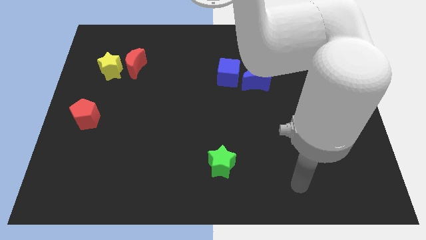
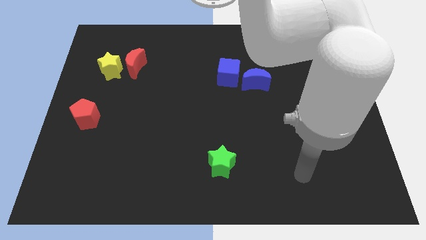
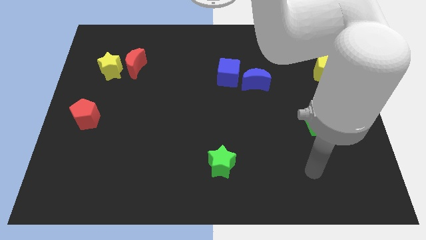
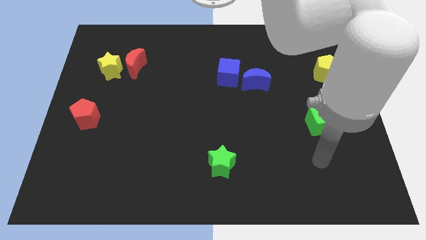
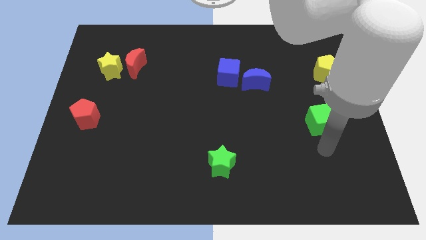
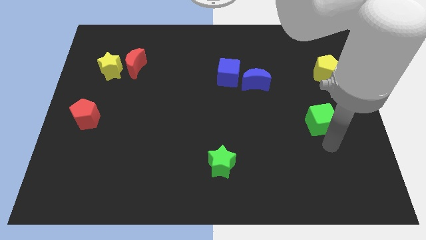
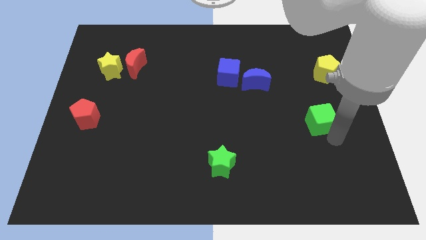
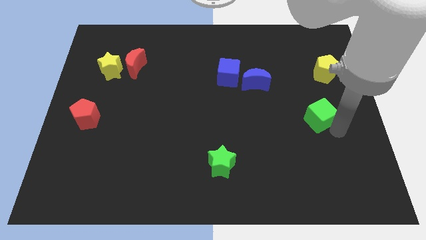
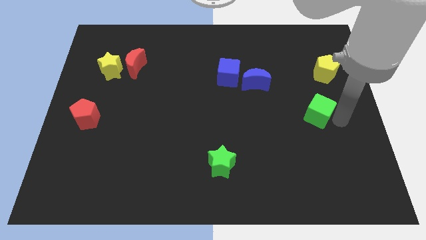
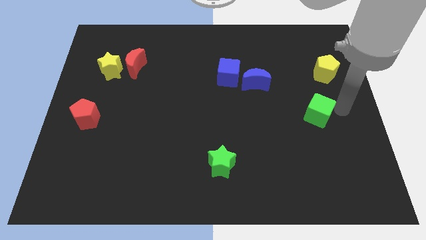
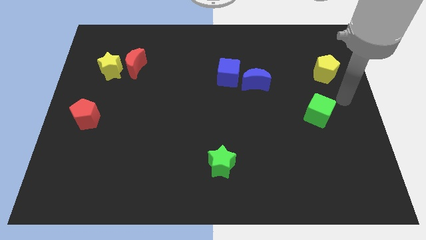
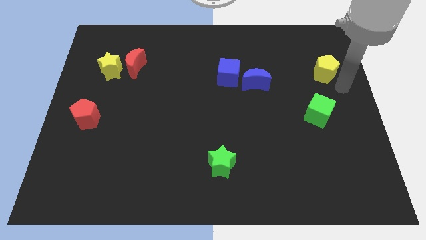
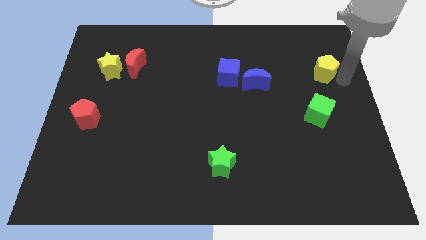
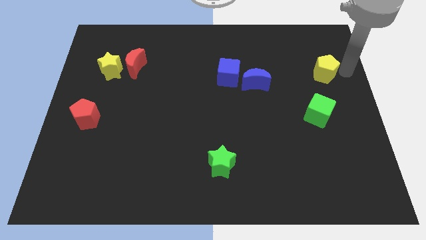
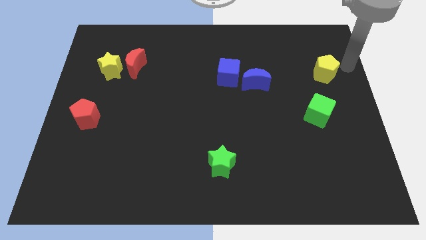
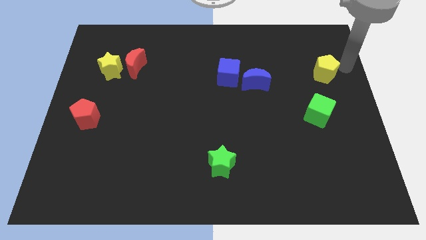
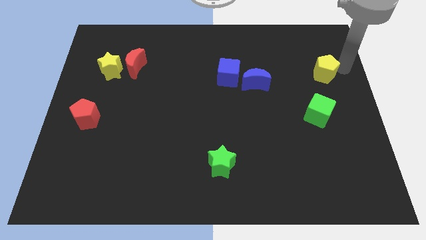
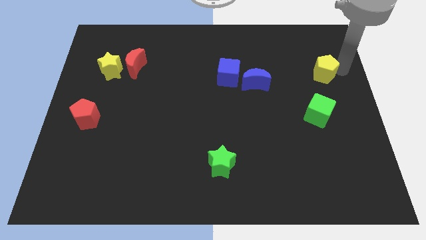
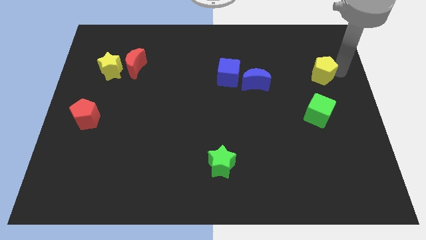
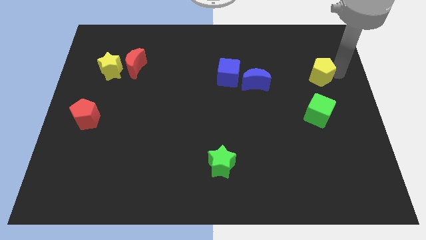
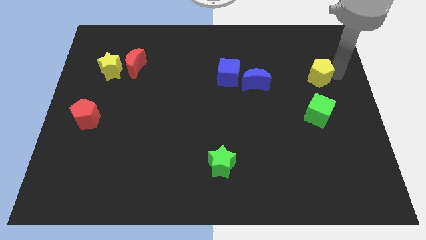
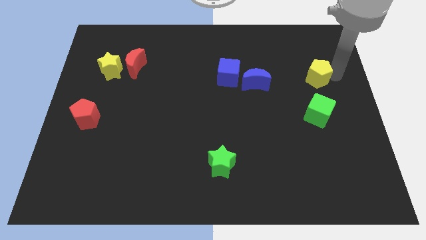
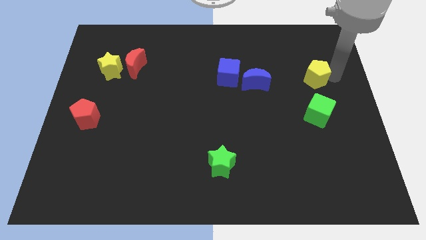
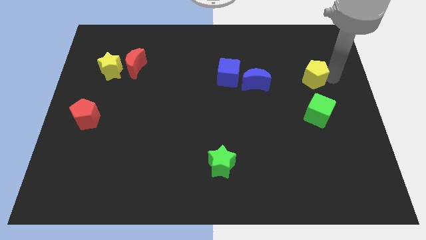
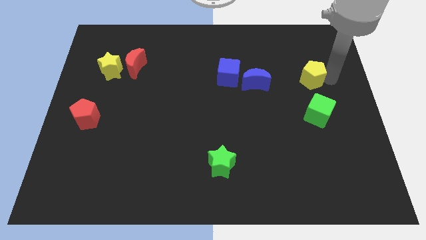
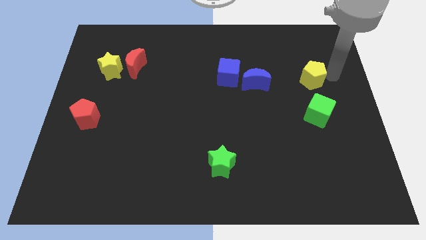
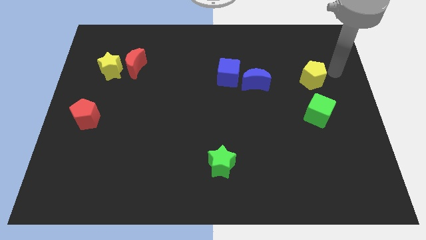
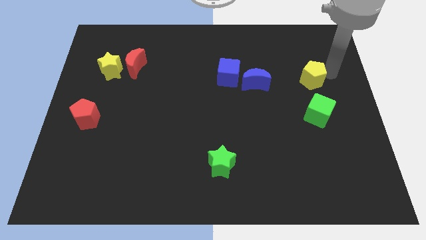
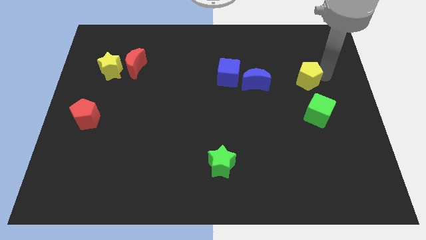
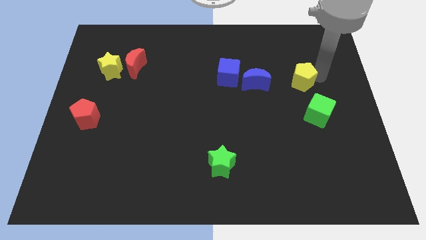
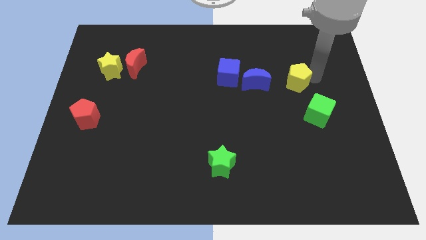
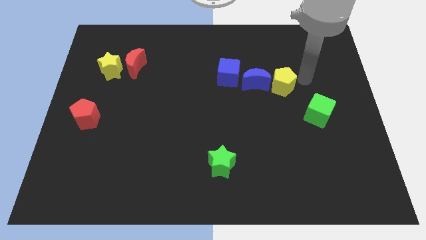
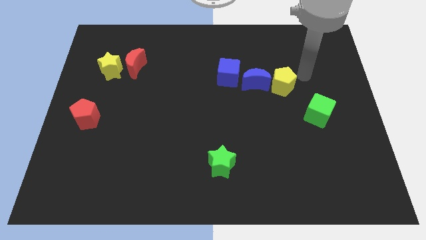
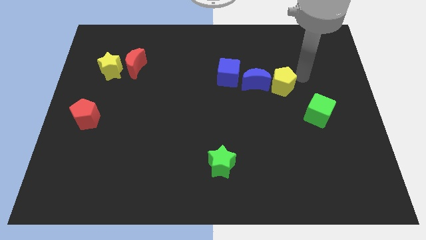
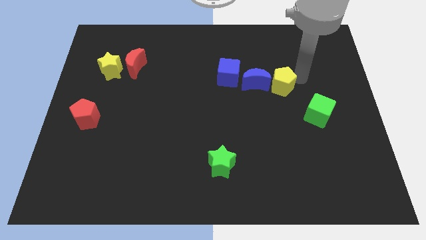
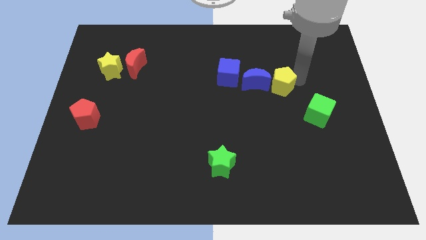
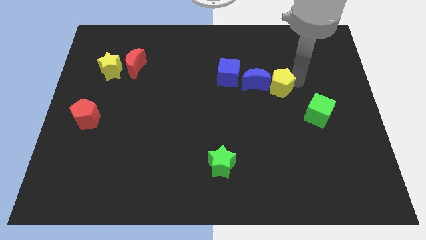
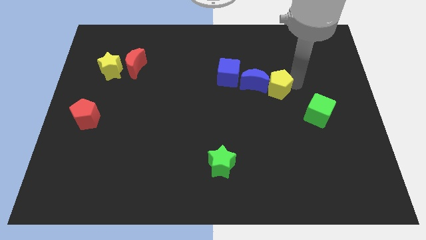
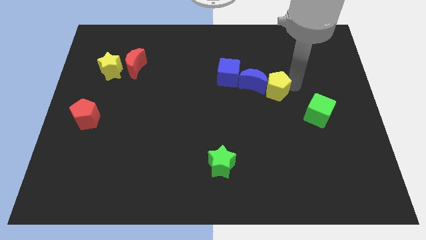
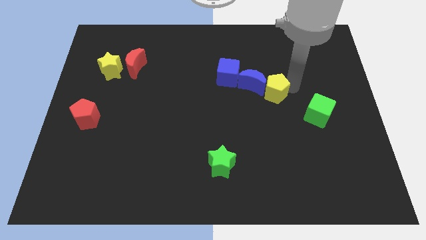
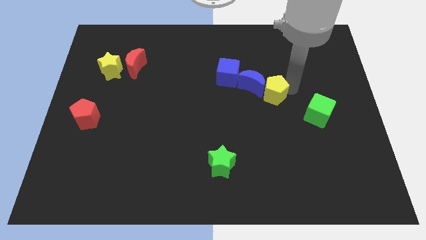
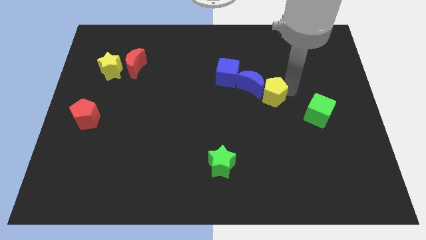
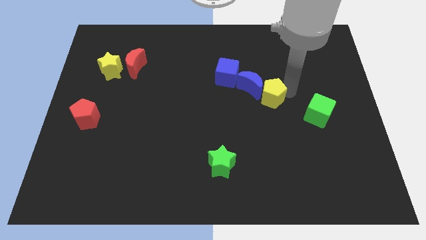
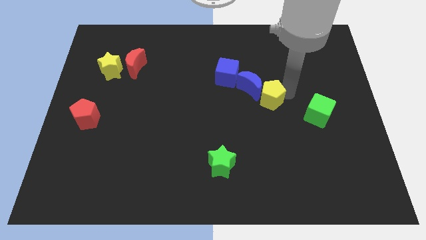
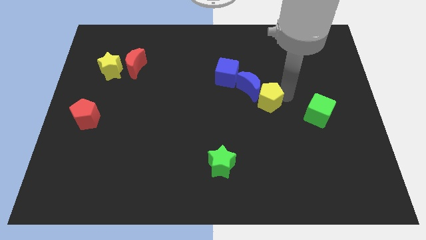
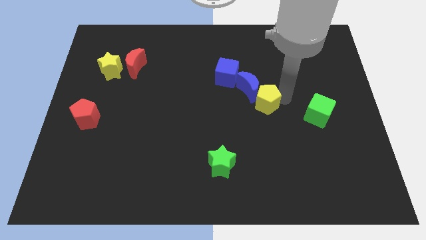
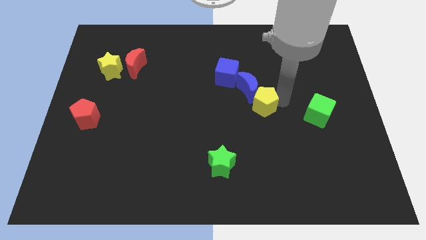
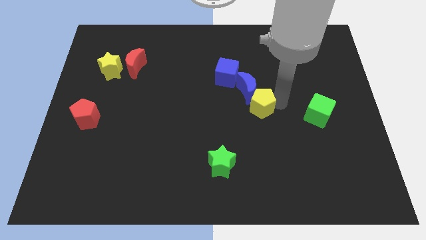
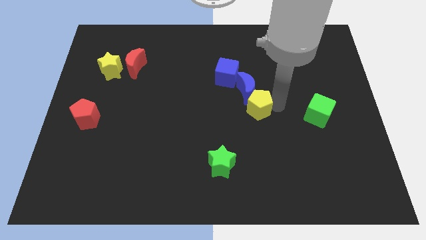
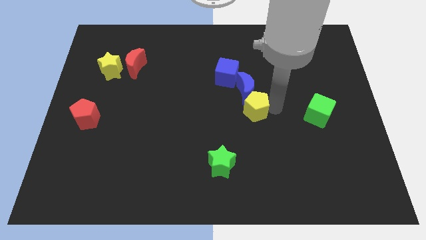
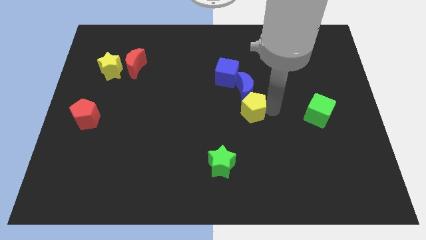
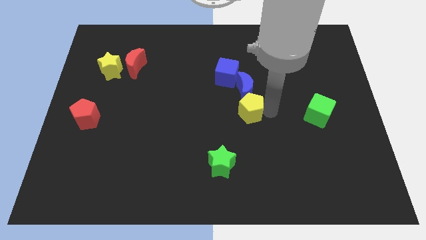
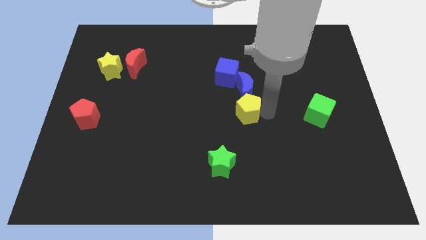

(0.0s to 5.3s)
put the yellow pentagon to the bottom left side of the blue moon

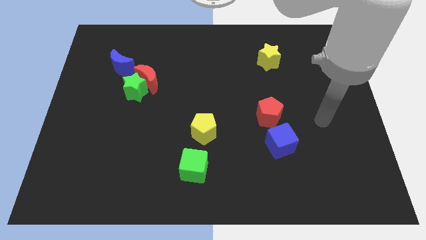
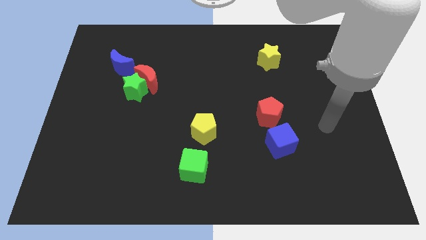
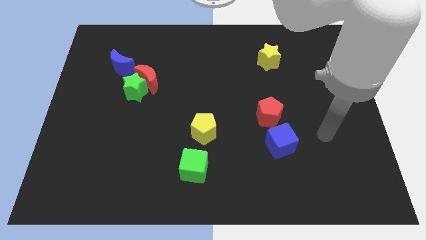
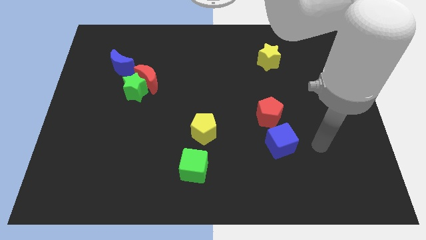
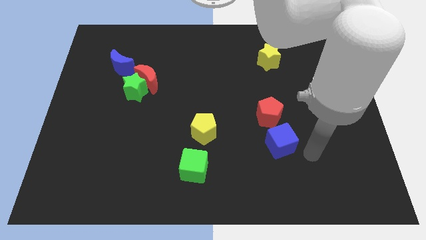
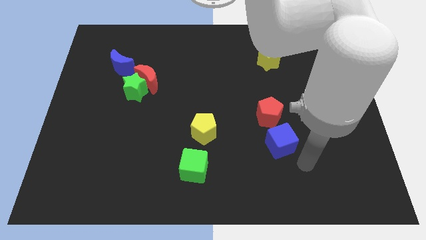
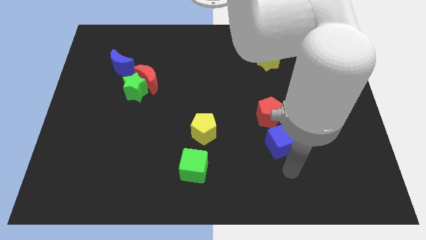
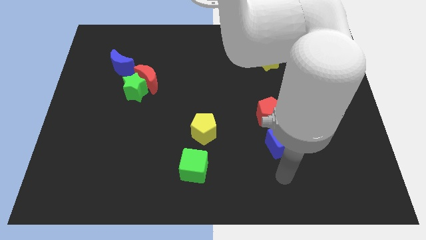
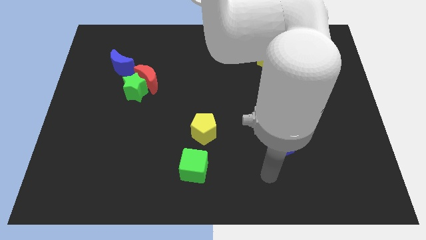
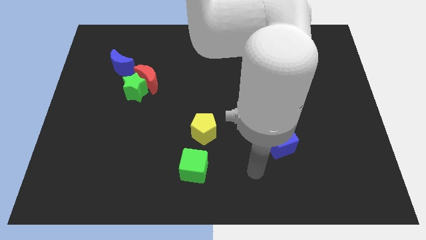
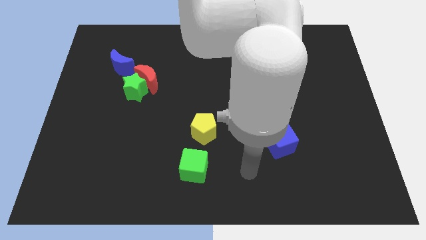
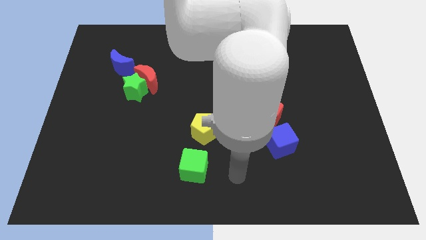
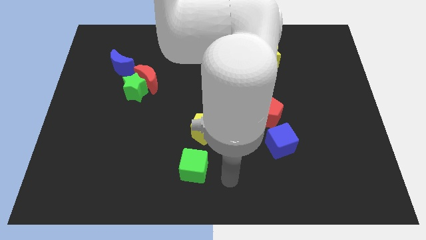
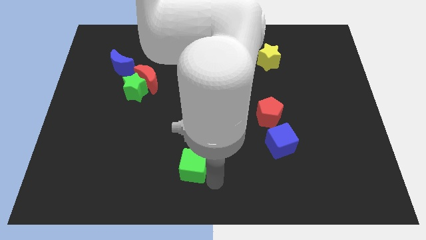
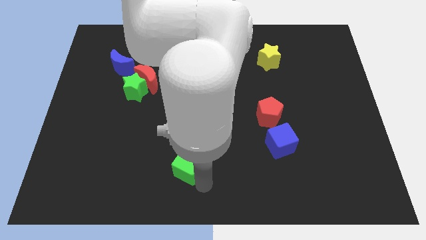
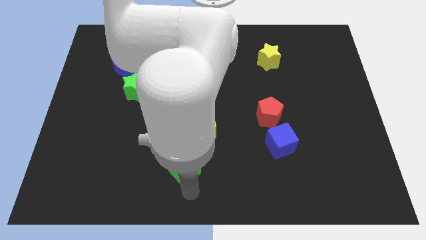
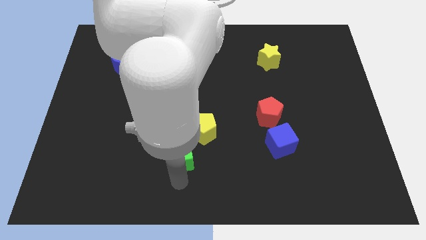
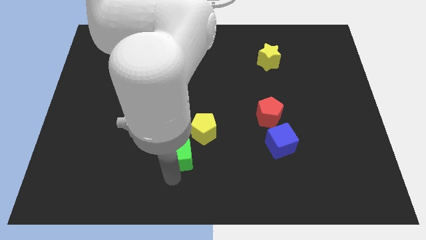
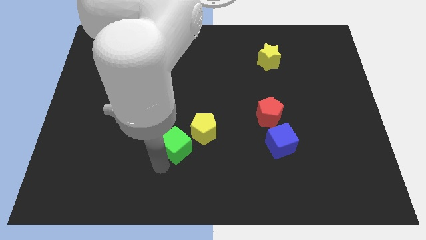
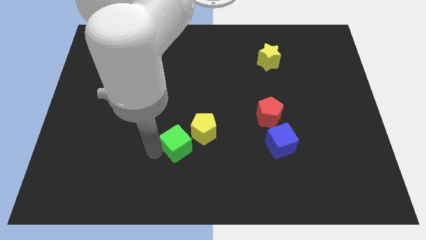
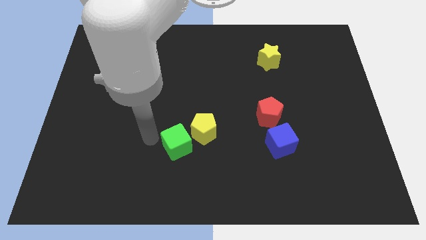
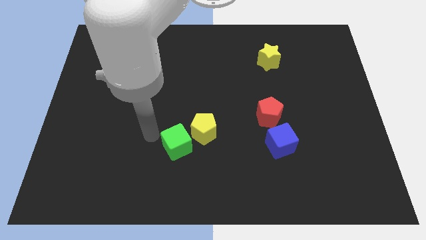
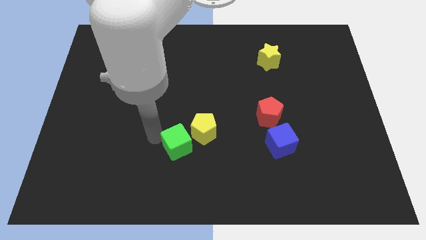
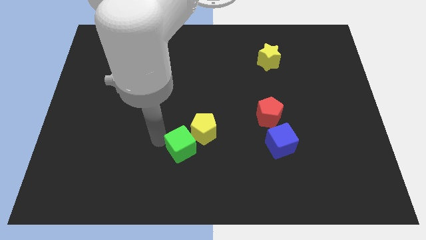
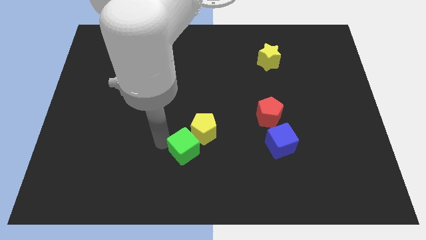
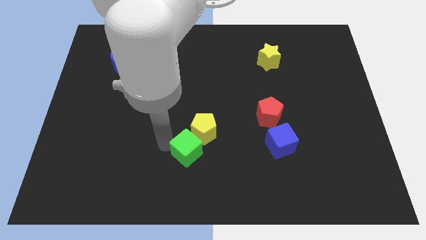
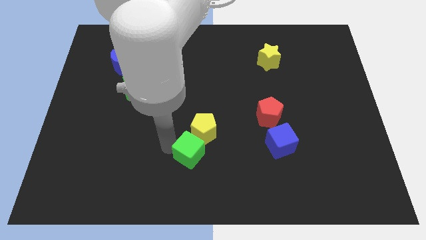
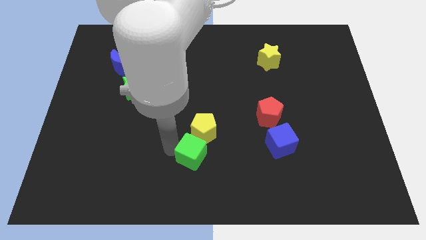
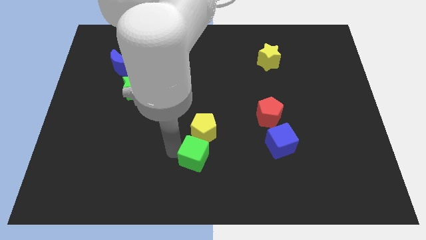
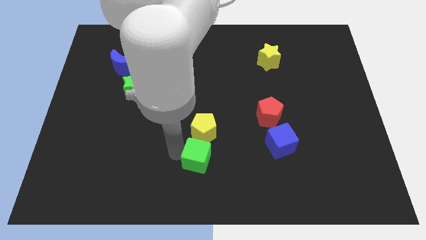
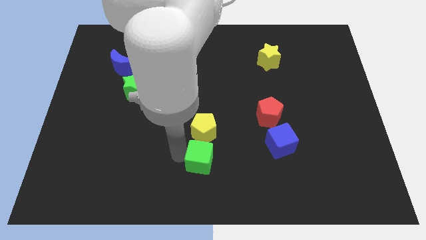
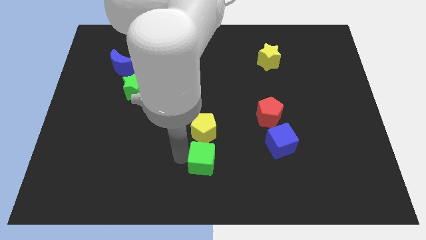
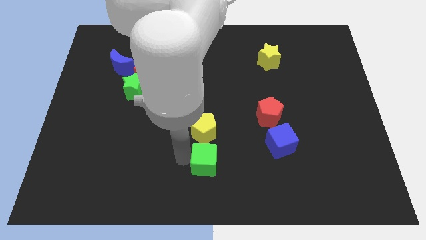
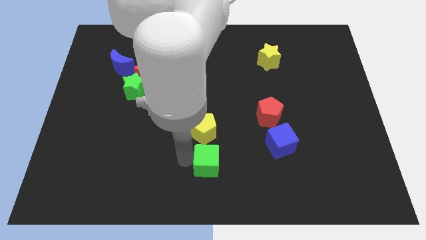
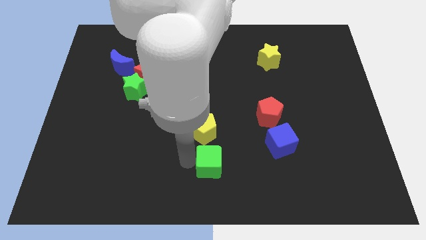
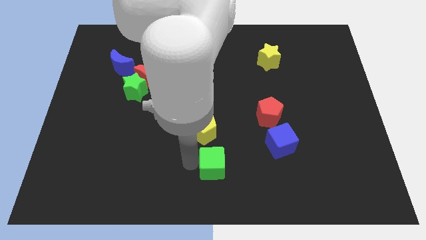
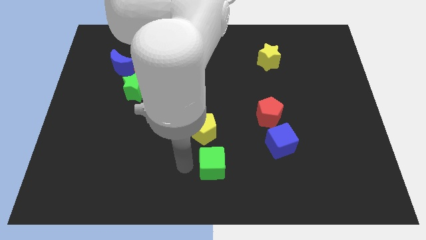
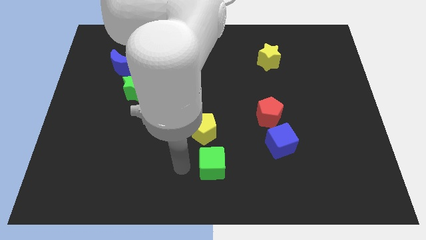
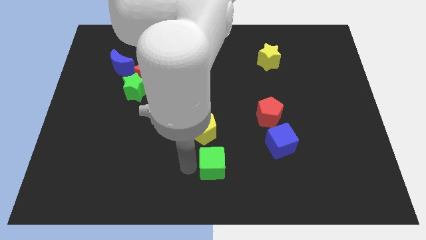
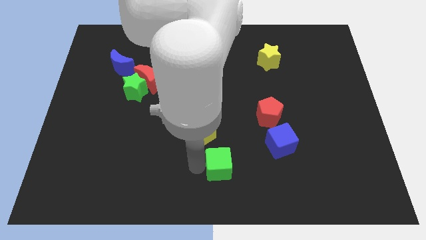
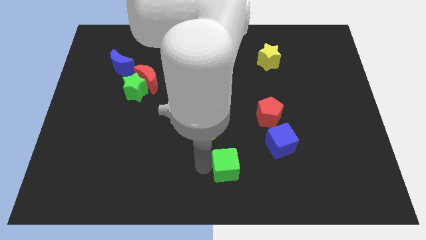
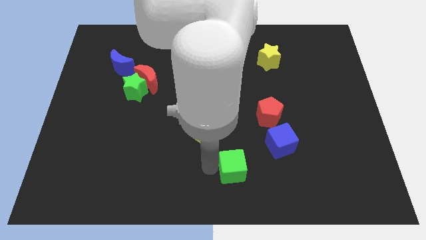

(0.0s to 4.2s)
push the green cube to the bottom left of the blue cube
